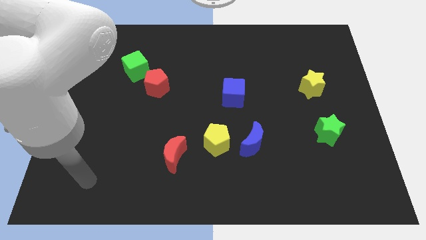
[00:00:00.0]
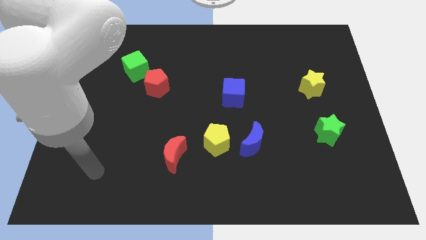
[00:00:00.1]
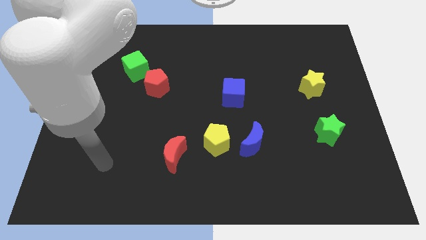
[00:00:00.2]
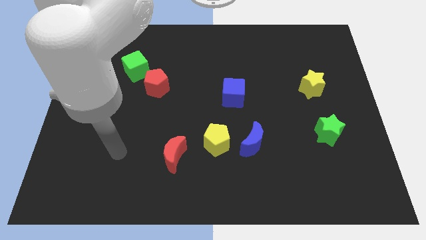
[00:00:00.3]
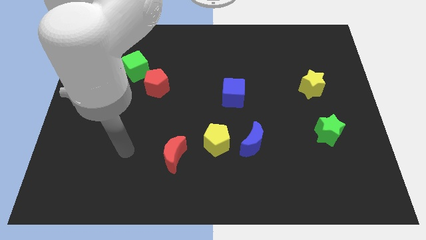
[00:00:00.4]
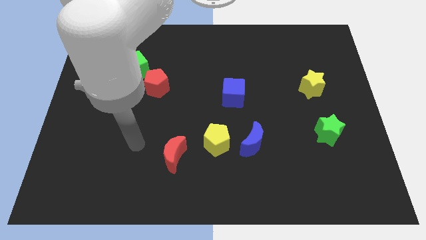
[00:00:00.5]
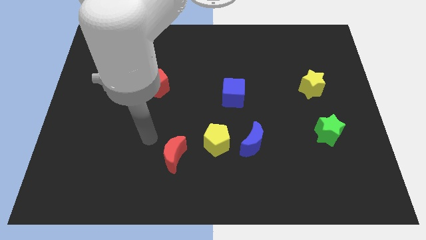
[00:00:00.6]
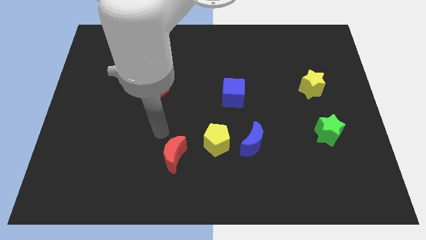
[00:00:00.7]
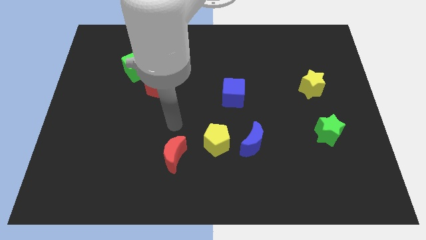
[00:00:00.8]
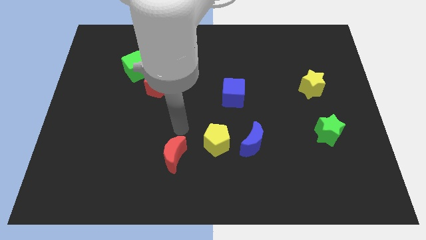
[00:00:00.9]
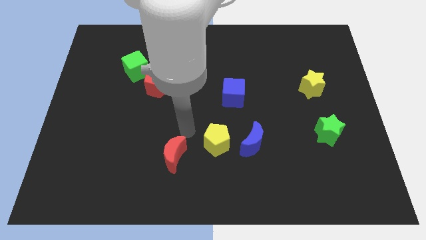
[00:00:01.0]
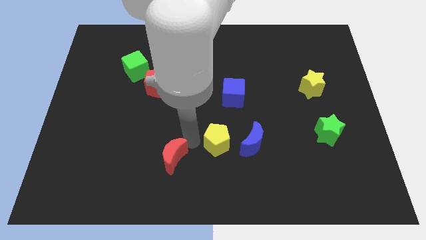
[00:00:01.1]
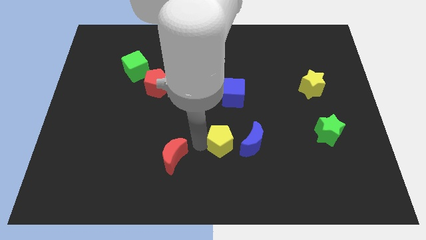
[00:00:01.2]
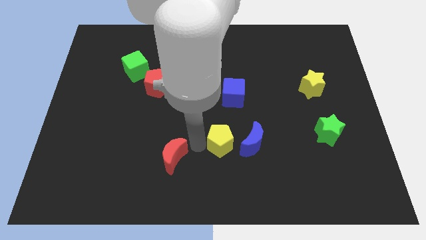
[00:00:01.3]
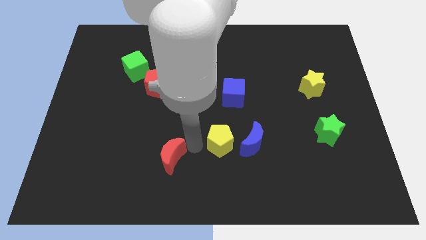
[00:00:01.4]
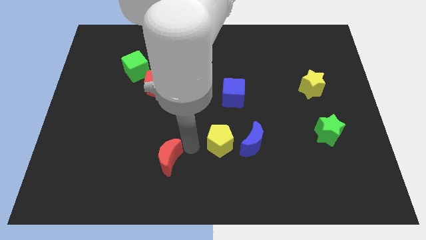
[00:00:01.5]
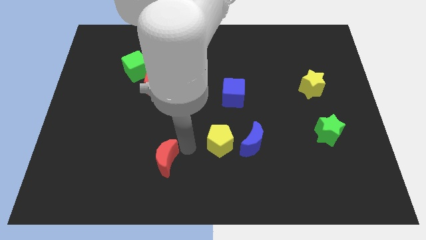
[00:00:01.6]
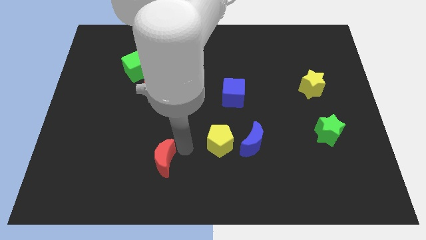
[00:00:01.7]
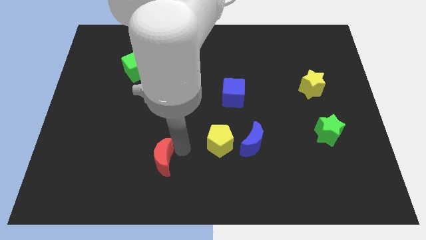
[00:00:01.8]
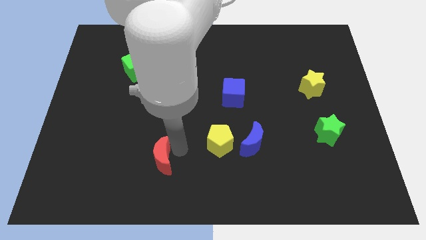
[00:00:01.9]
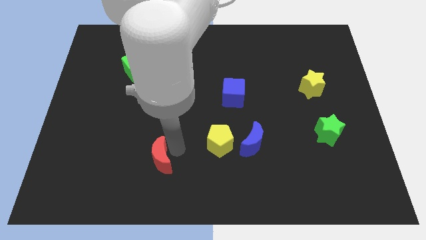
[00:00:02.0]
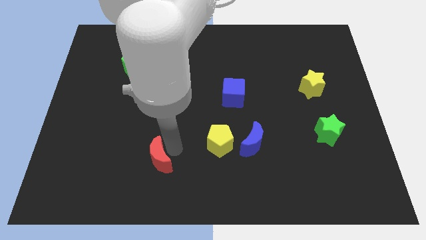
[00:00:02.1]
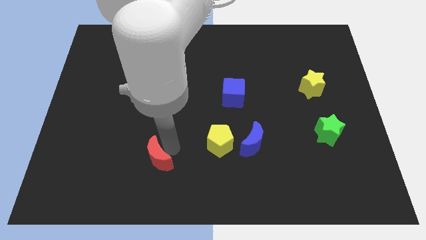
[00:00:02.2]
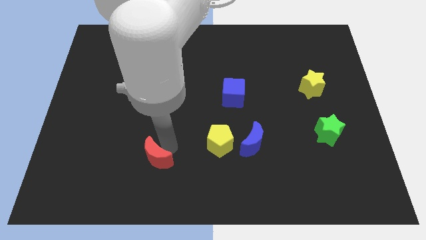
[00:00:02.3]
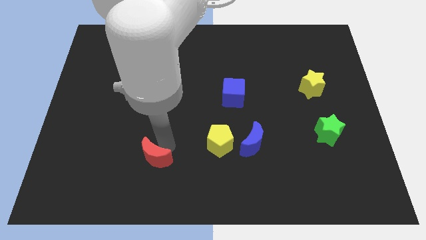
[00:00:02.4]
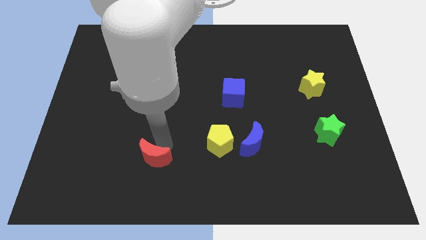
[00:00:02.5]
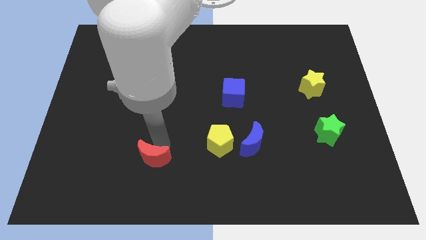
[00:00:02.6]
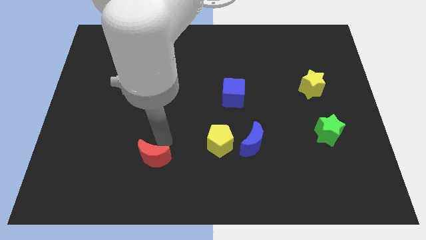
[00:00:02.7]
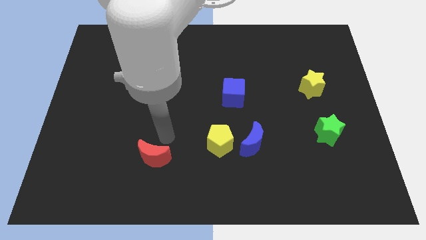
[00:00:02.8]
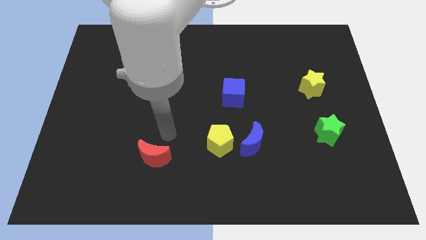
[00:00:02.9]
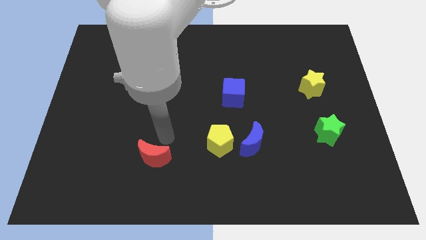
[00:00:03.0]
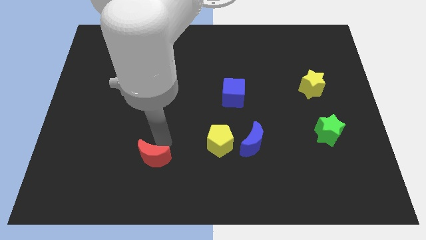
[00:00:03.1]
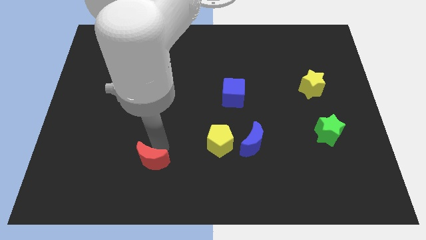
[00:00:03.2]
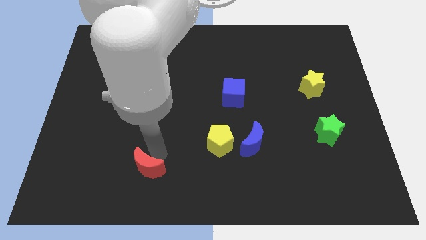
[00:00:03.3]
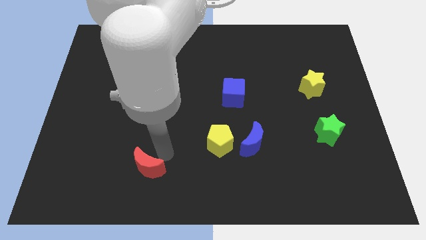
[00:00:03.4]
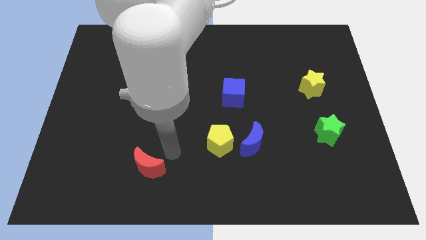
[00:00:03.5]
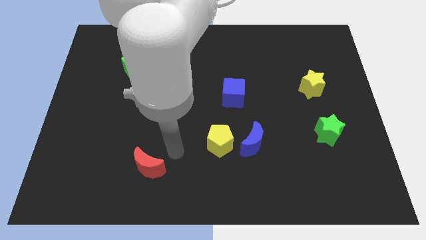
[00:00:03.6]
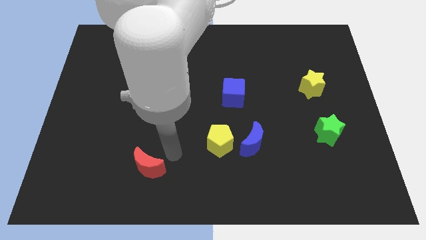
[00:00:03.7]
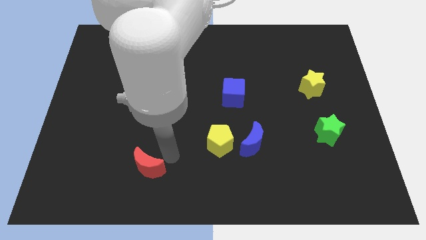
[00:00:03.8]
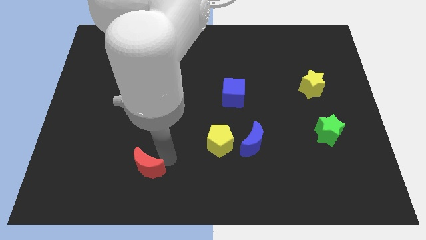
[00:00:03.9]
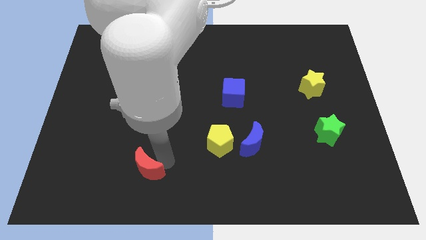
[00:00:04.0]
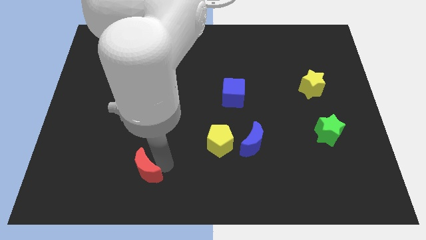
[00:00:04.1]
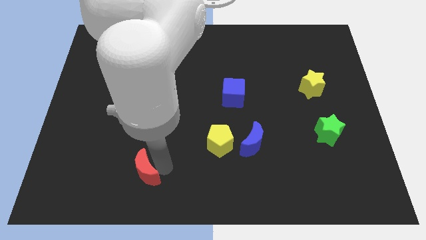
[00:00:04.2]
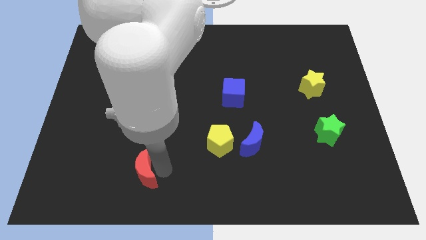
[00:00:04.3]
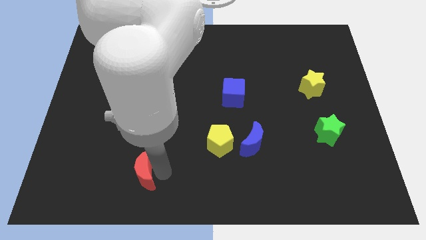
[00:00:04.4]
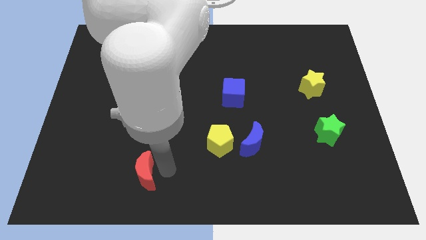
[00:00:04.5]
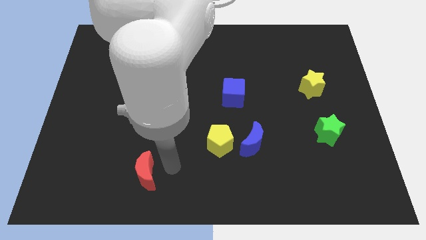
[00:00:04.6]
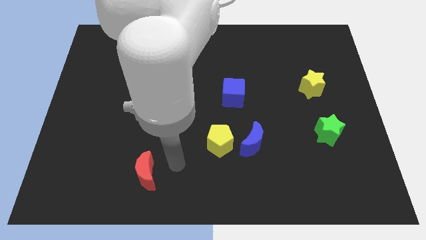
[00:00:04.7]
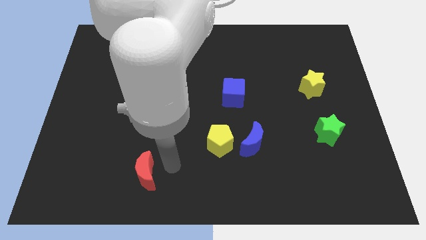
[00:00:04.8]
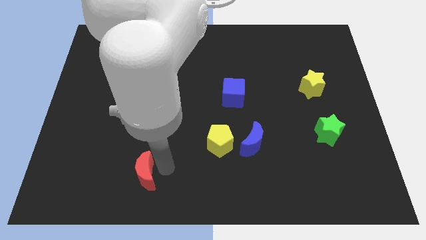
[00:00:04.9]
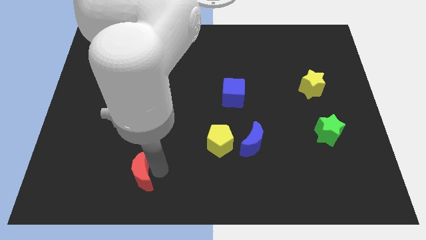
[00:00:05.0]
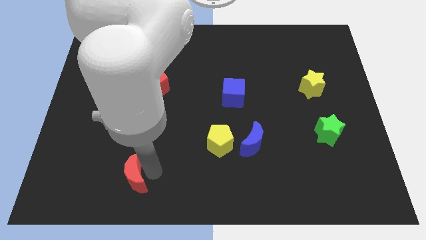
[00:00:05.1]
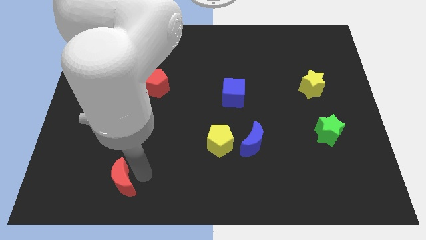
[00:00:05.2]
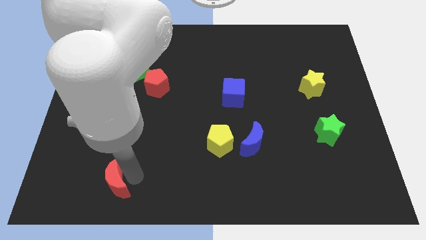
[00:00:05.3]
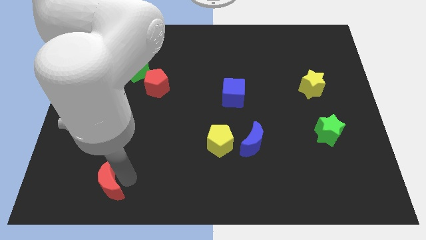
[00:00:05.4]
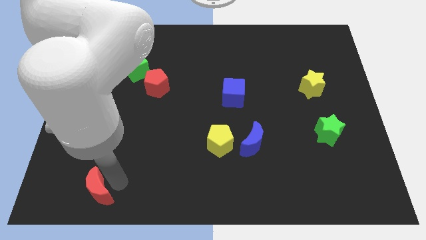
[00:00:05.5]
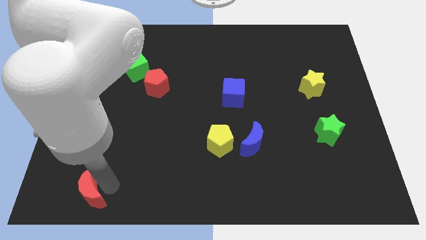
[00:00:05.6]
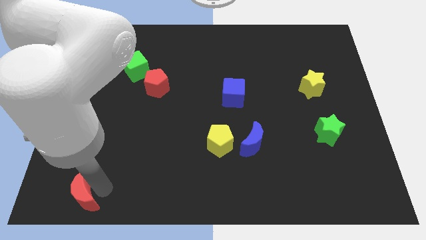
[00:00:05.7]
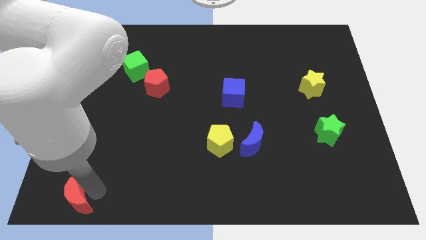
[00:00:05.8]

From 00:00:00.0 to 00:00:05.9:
move the red moon to the bottom left

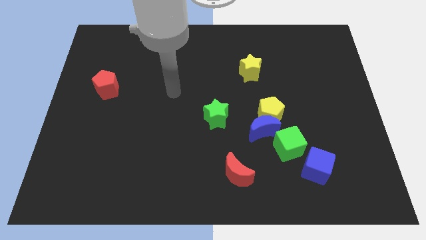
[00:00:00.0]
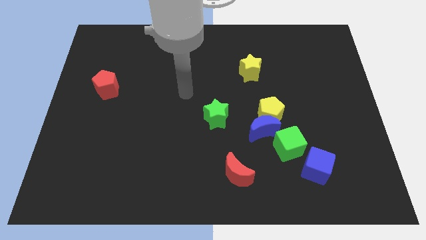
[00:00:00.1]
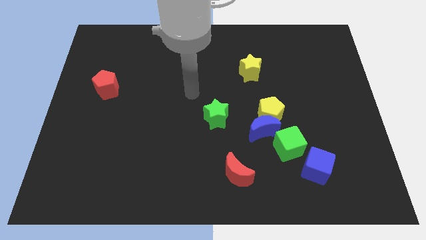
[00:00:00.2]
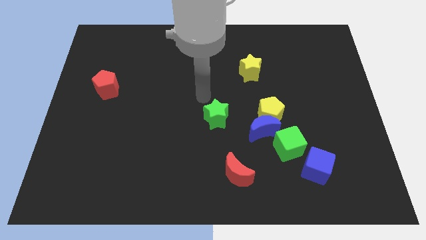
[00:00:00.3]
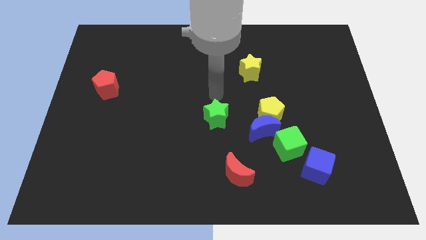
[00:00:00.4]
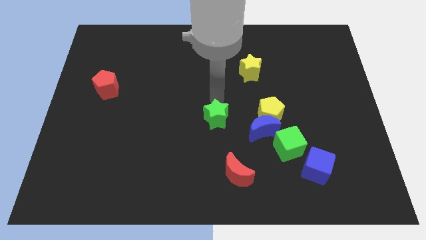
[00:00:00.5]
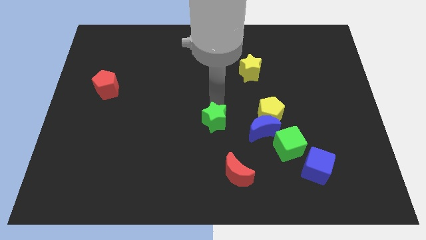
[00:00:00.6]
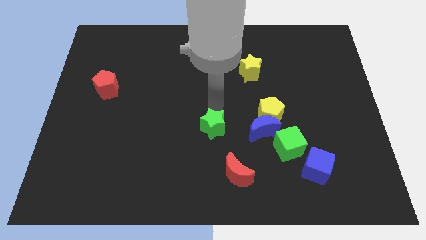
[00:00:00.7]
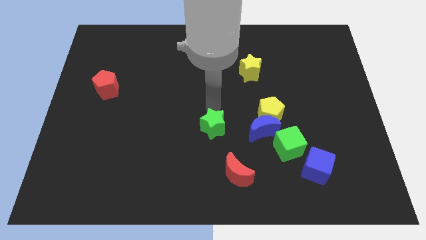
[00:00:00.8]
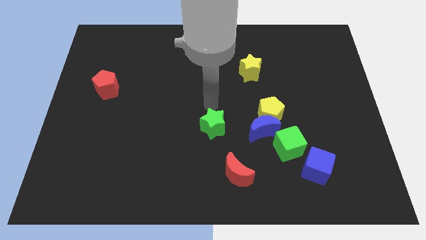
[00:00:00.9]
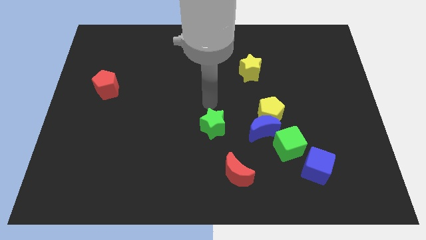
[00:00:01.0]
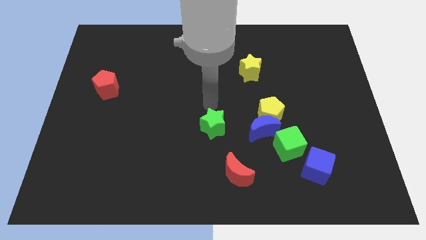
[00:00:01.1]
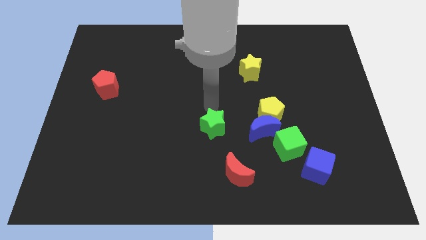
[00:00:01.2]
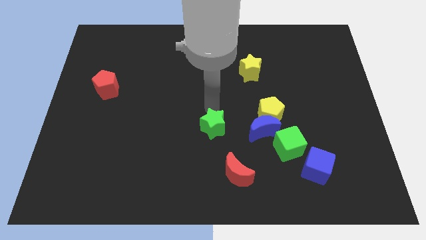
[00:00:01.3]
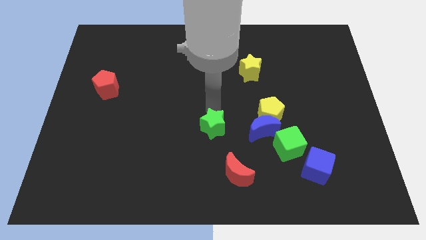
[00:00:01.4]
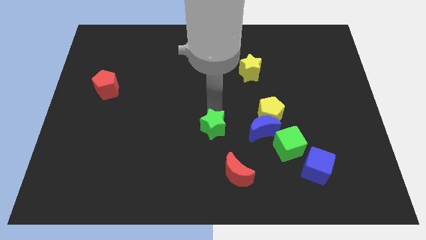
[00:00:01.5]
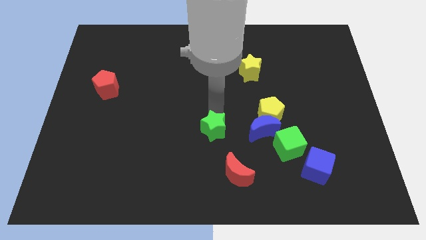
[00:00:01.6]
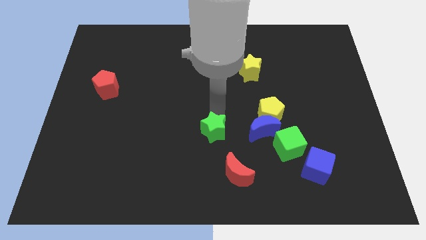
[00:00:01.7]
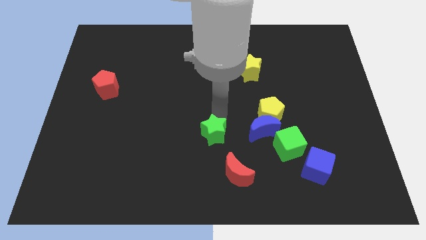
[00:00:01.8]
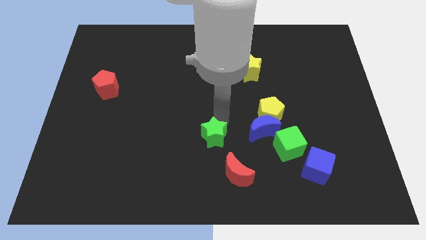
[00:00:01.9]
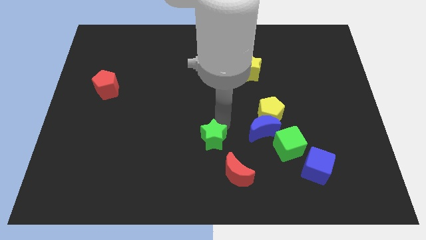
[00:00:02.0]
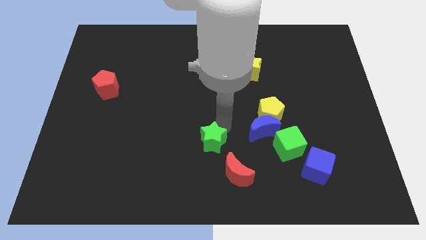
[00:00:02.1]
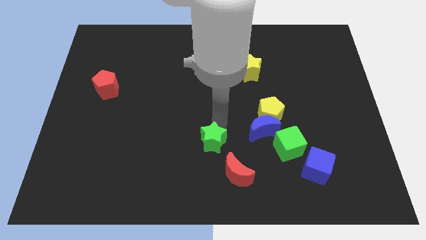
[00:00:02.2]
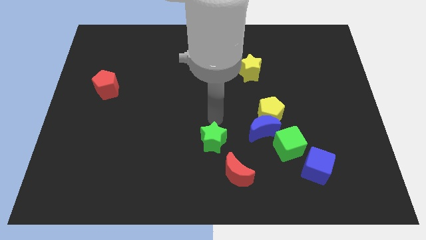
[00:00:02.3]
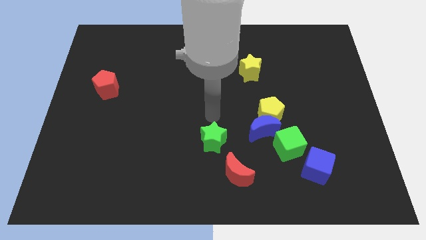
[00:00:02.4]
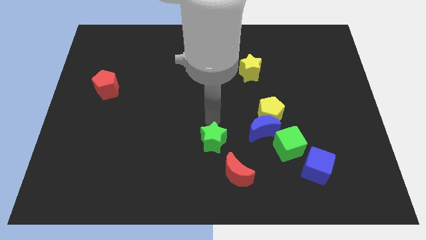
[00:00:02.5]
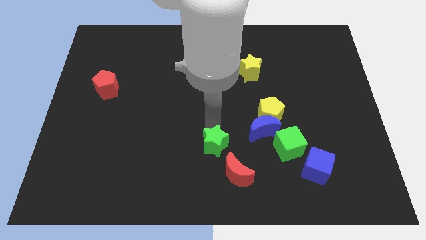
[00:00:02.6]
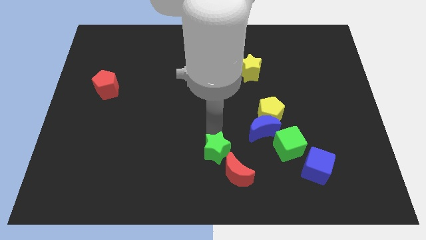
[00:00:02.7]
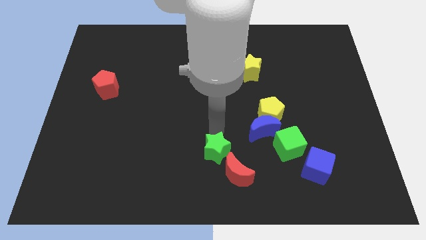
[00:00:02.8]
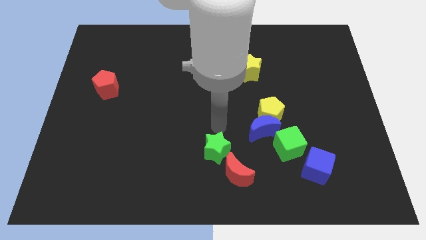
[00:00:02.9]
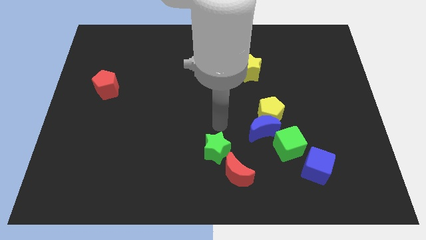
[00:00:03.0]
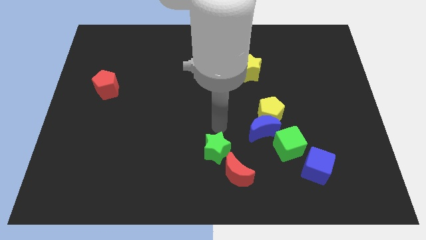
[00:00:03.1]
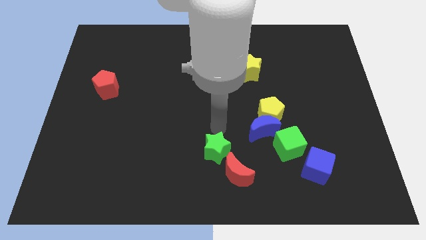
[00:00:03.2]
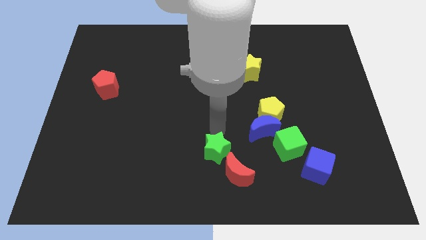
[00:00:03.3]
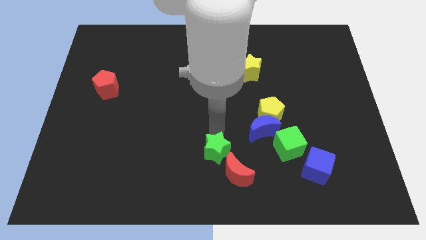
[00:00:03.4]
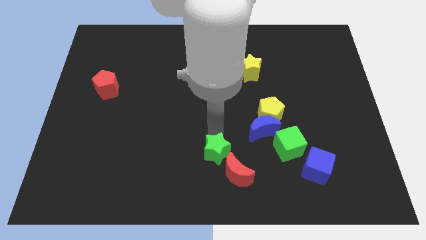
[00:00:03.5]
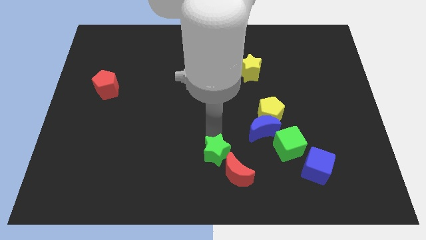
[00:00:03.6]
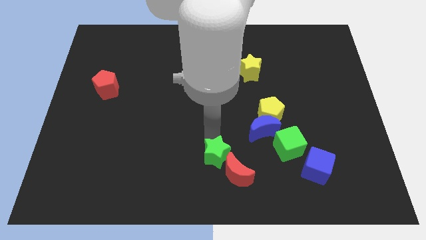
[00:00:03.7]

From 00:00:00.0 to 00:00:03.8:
slide the green star to the bottom
